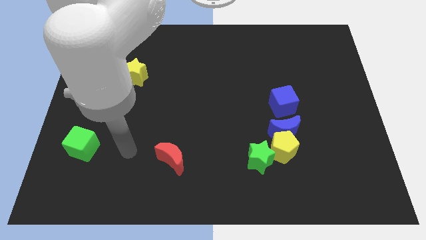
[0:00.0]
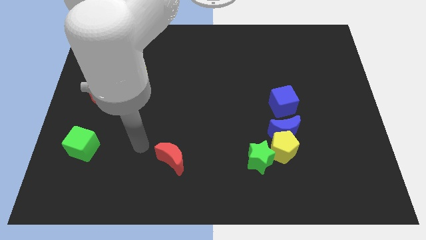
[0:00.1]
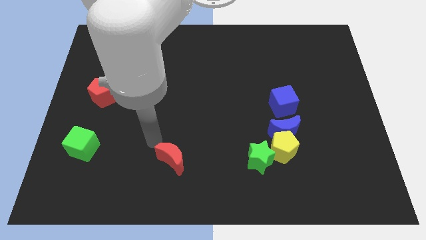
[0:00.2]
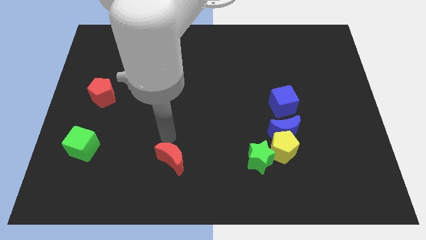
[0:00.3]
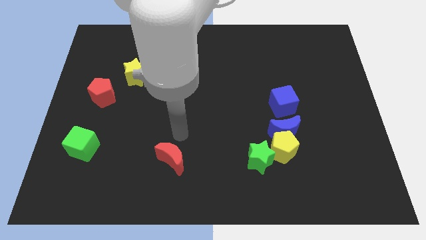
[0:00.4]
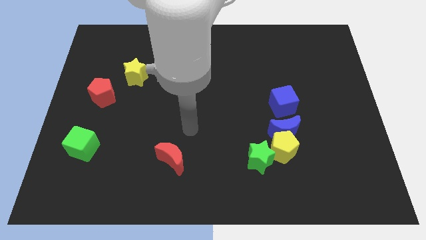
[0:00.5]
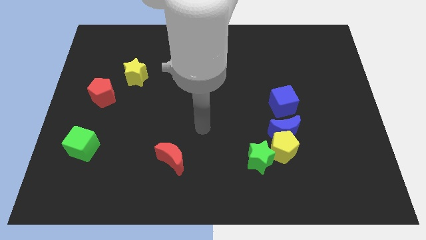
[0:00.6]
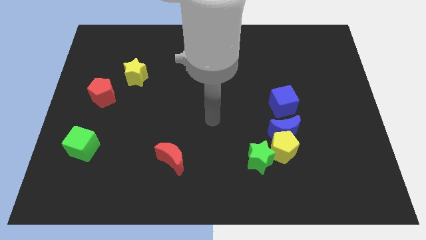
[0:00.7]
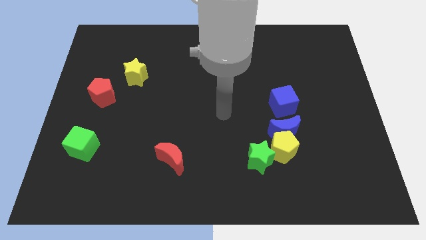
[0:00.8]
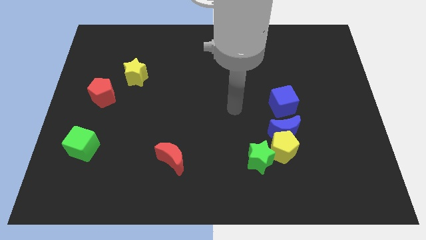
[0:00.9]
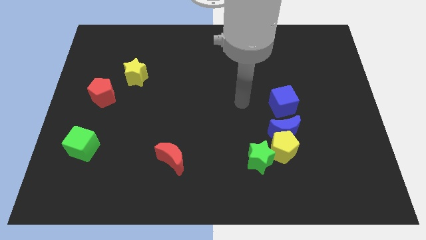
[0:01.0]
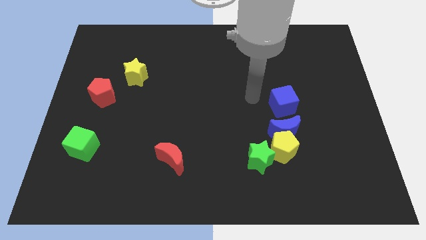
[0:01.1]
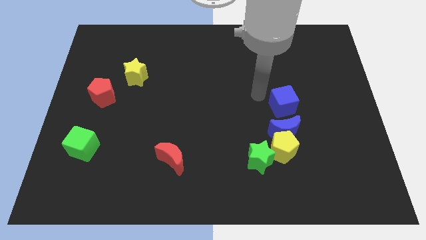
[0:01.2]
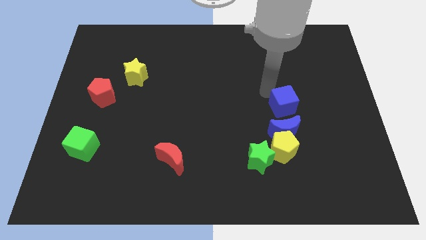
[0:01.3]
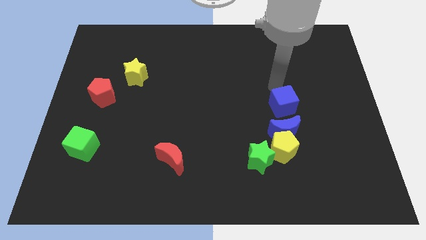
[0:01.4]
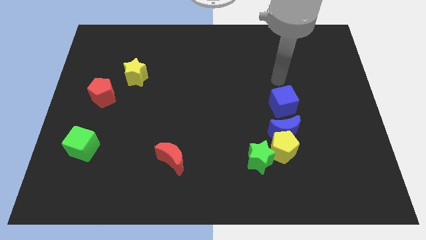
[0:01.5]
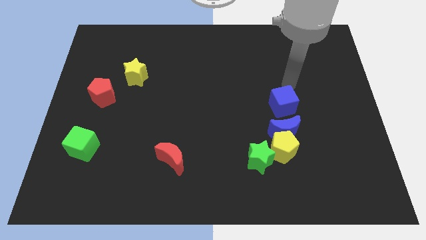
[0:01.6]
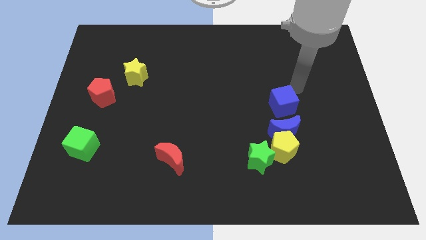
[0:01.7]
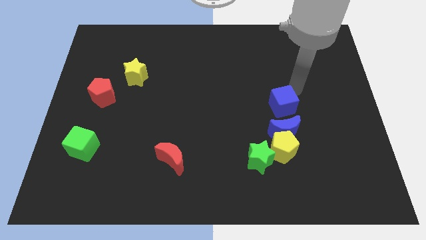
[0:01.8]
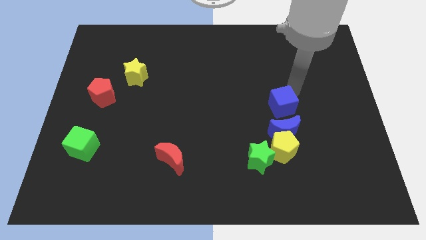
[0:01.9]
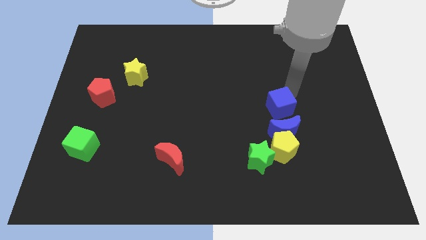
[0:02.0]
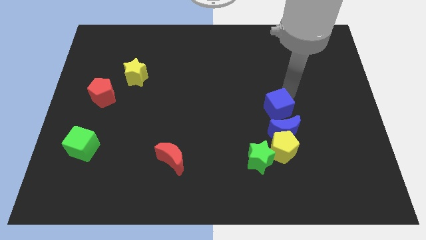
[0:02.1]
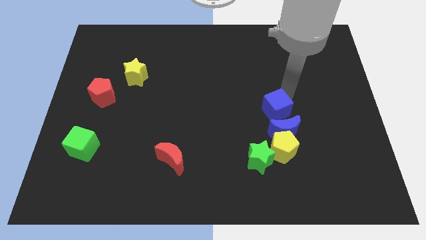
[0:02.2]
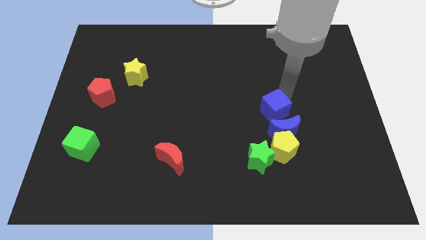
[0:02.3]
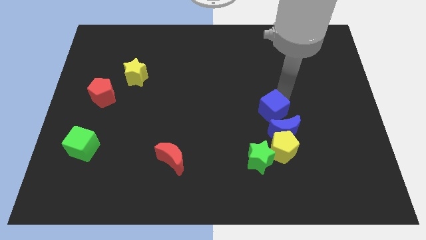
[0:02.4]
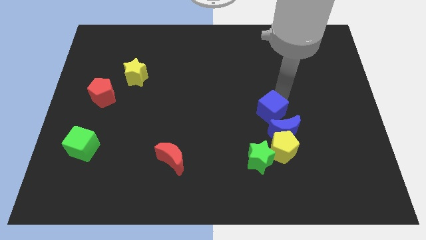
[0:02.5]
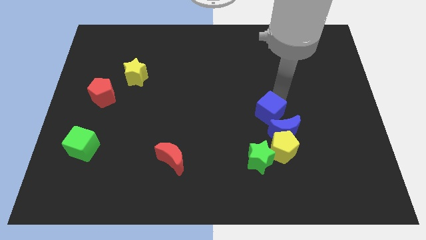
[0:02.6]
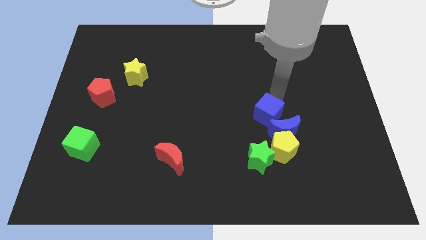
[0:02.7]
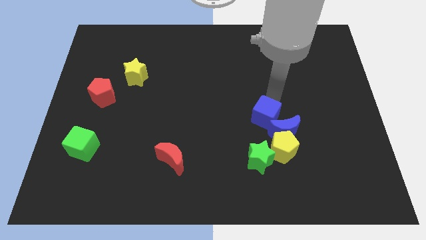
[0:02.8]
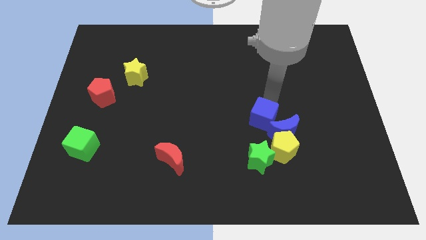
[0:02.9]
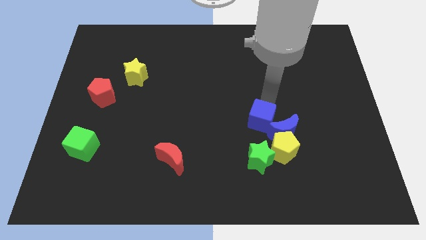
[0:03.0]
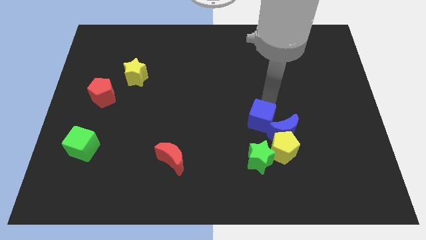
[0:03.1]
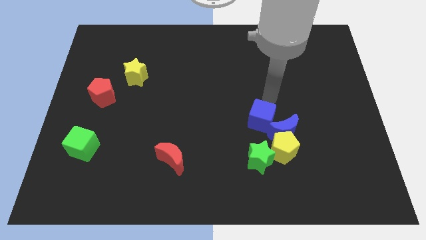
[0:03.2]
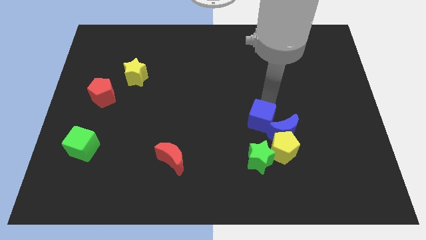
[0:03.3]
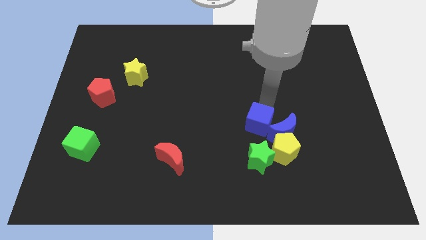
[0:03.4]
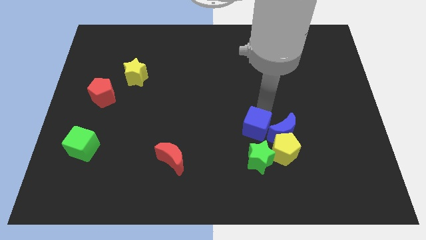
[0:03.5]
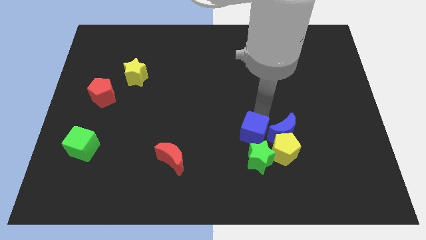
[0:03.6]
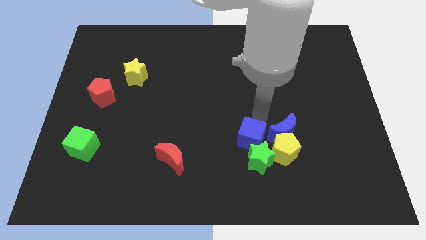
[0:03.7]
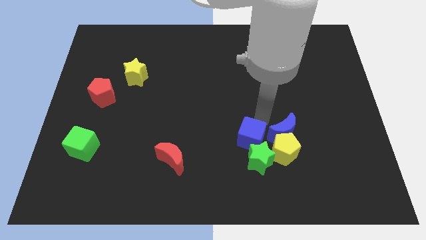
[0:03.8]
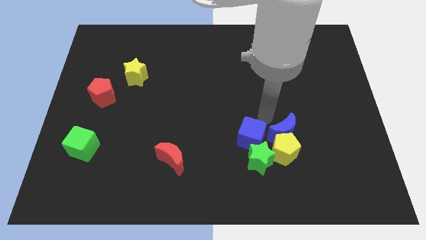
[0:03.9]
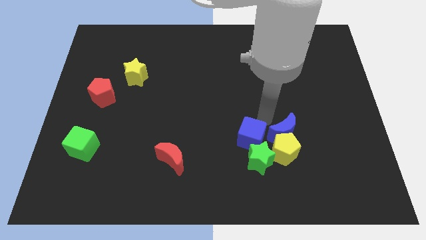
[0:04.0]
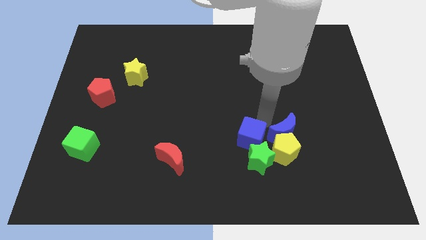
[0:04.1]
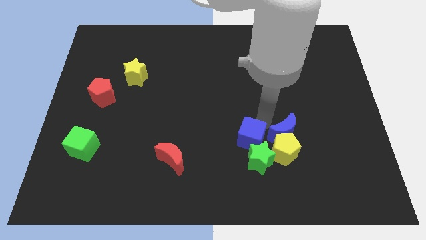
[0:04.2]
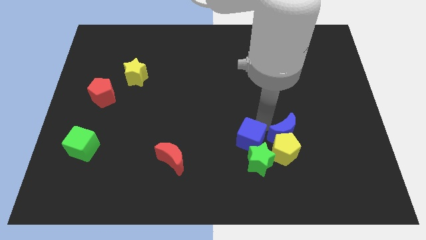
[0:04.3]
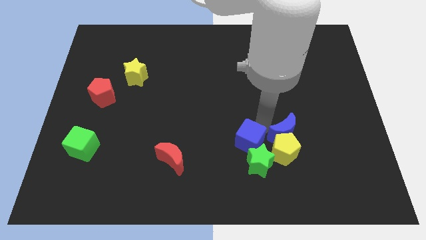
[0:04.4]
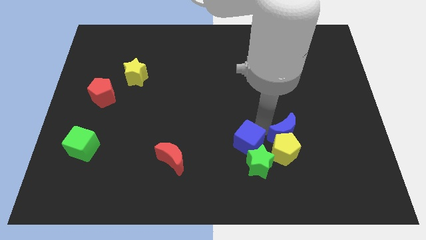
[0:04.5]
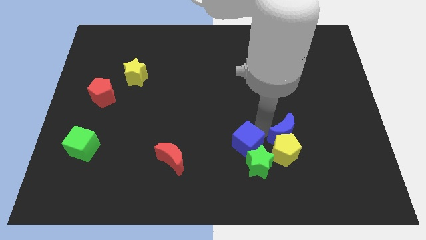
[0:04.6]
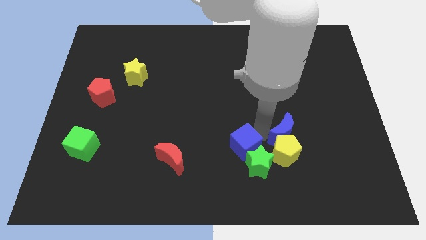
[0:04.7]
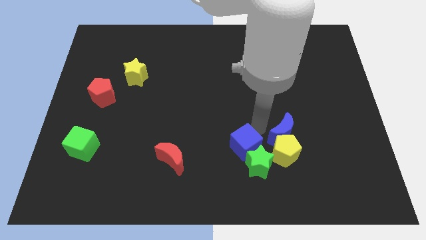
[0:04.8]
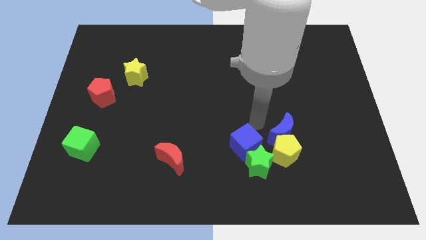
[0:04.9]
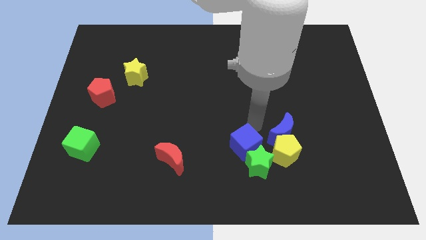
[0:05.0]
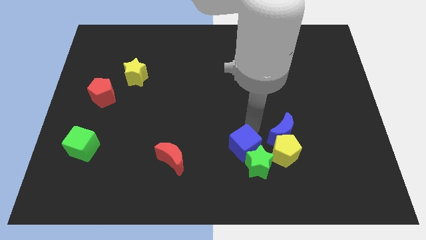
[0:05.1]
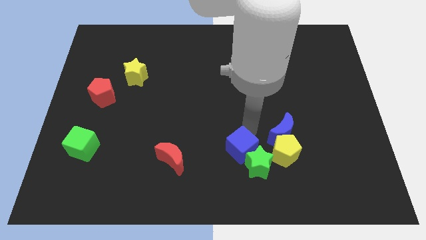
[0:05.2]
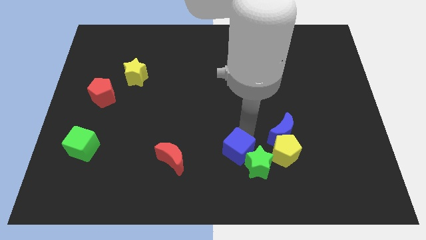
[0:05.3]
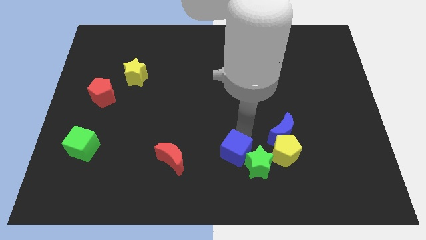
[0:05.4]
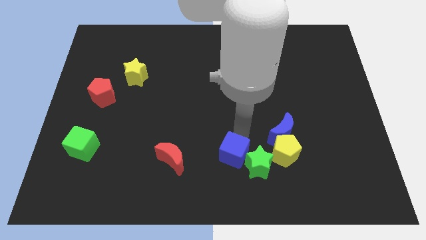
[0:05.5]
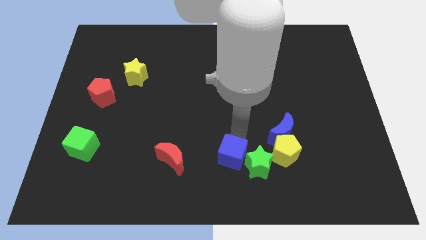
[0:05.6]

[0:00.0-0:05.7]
put the blue cube to the bottom side

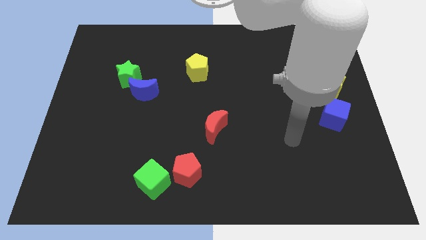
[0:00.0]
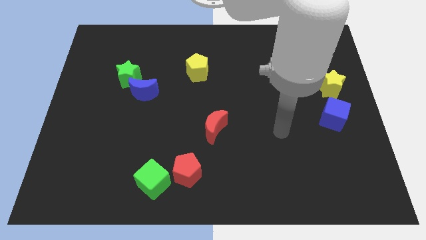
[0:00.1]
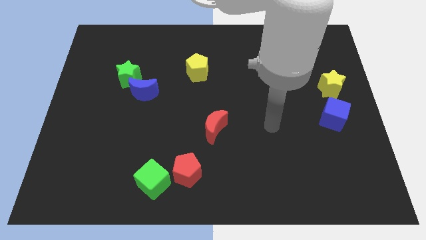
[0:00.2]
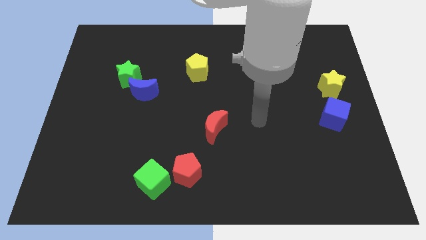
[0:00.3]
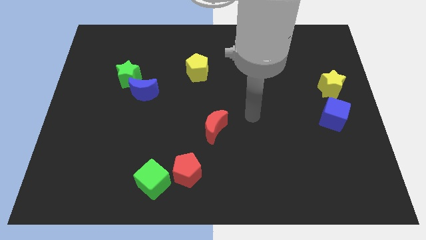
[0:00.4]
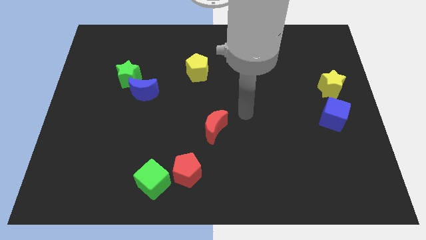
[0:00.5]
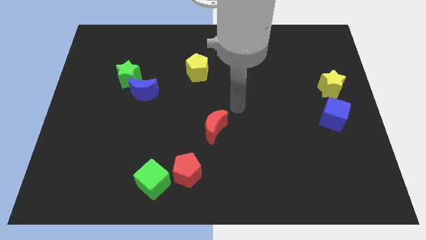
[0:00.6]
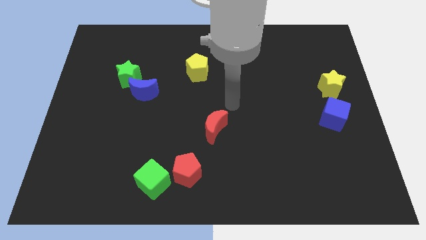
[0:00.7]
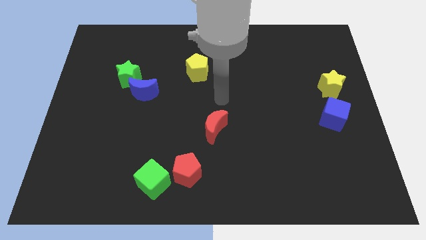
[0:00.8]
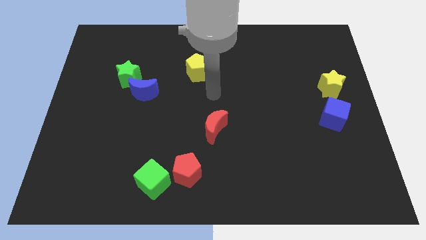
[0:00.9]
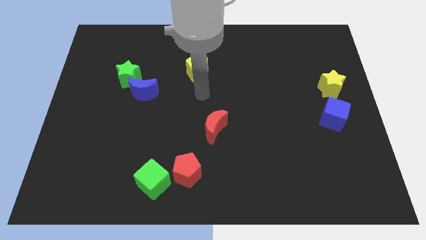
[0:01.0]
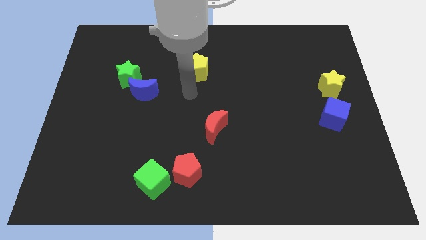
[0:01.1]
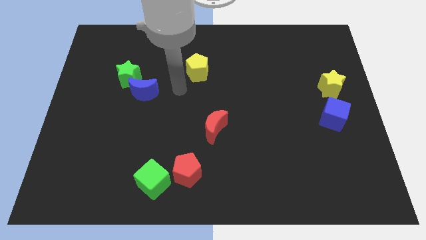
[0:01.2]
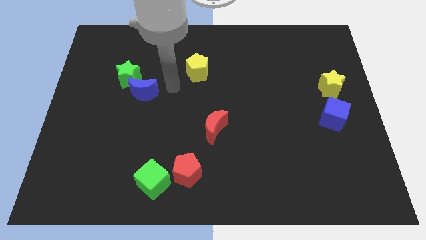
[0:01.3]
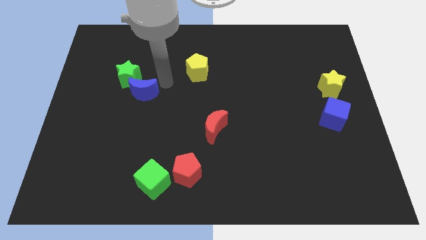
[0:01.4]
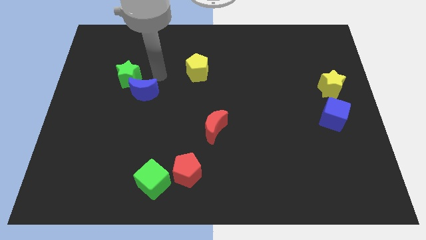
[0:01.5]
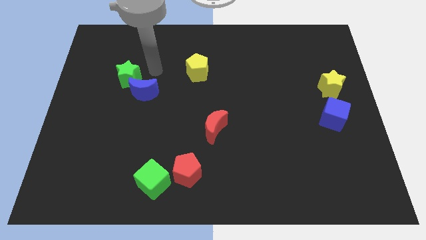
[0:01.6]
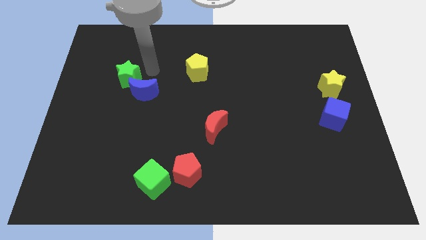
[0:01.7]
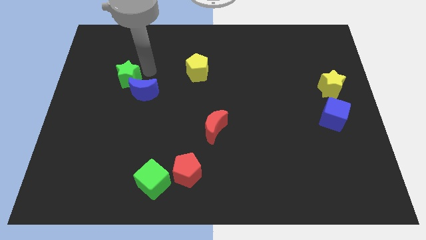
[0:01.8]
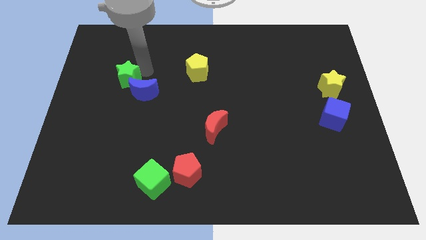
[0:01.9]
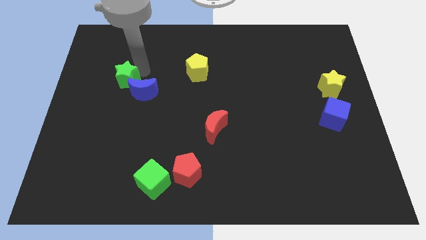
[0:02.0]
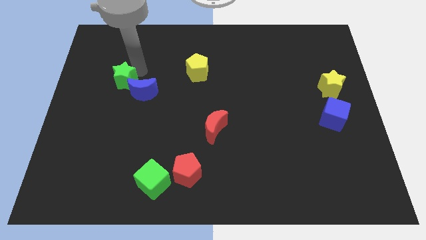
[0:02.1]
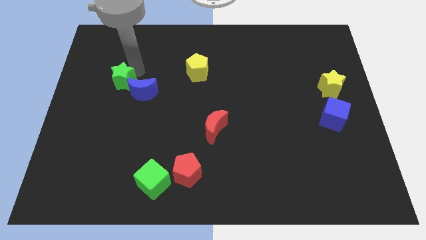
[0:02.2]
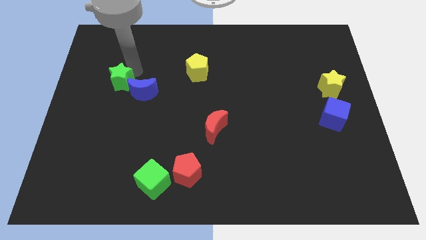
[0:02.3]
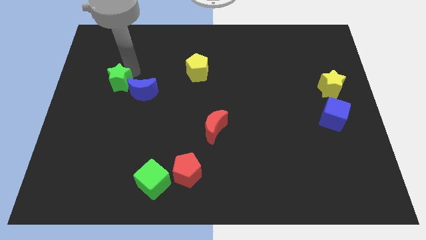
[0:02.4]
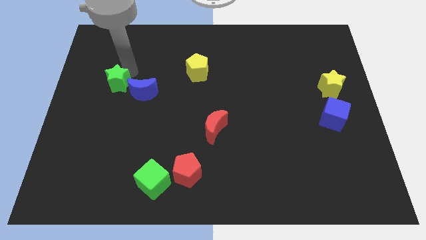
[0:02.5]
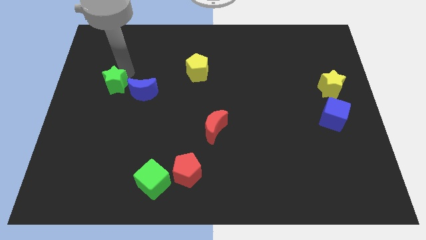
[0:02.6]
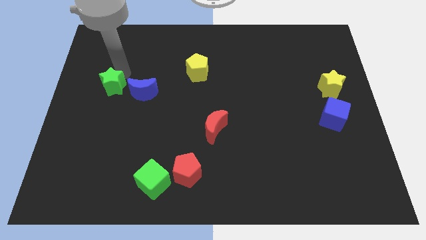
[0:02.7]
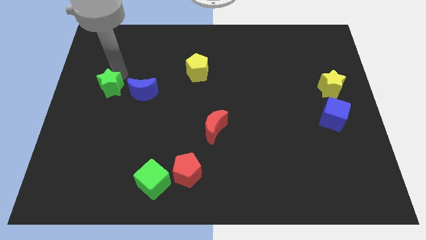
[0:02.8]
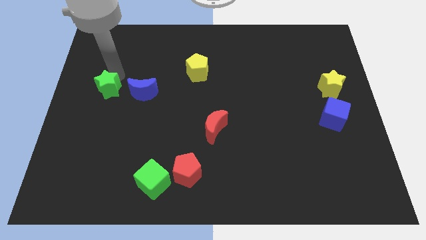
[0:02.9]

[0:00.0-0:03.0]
slide the green star to the left side of the board
